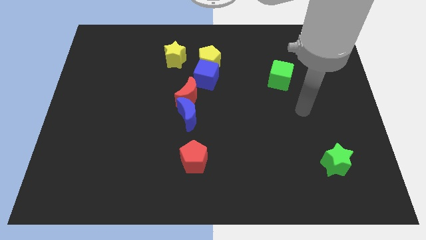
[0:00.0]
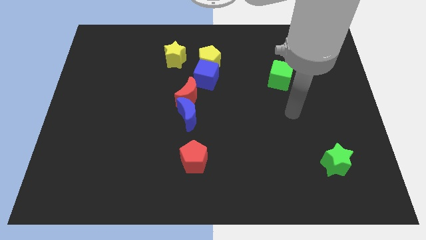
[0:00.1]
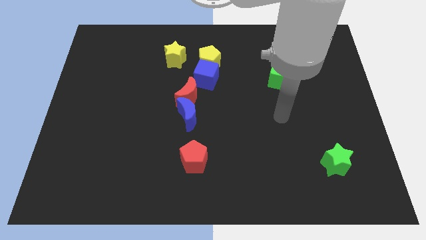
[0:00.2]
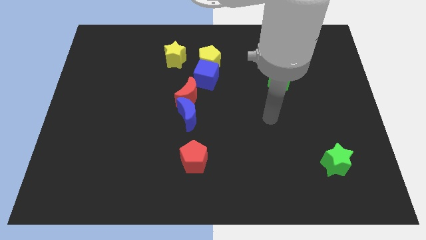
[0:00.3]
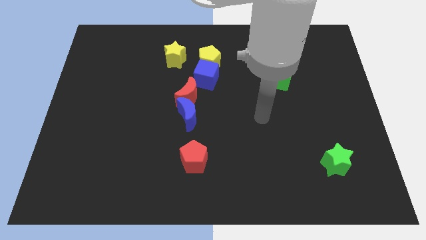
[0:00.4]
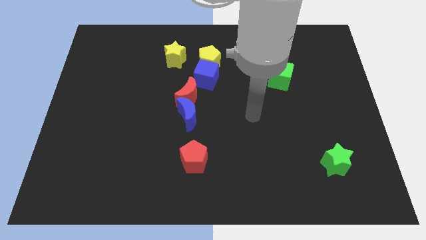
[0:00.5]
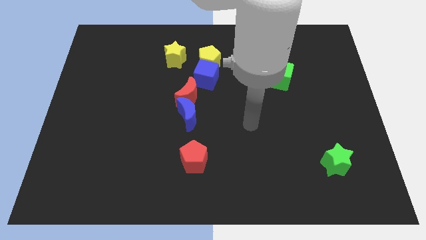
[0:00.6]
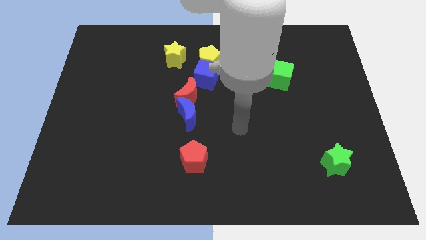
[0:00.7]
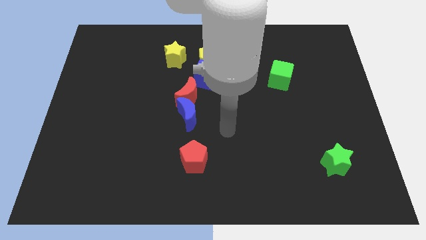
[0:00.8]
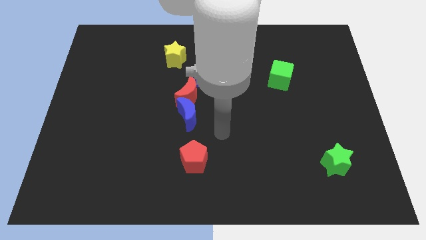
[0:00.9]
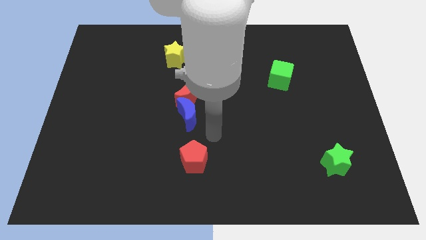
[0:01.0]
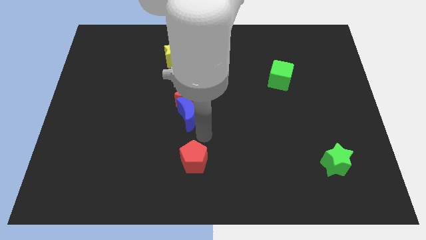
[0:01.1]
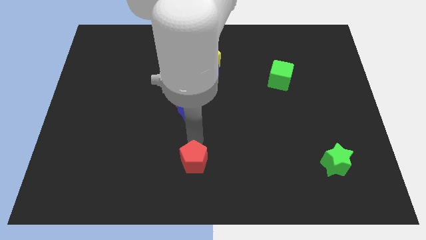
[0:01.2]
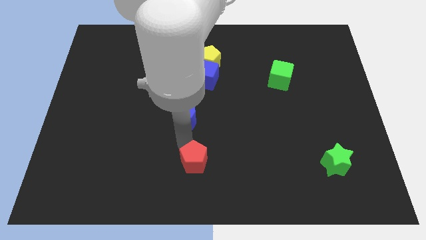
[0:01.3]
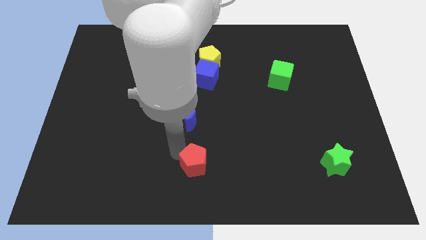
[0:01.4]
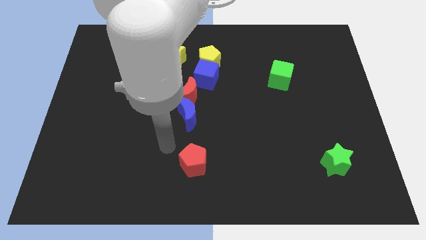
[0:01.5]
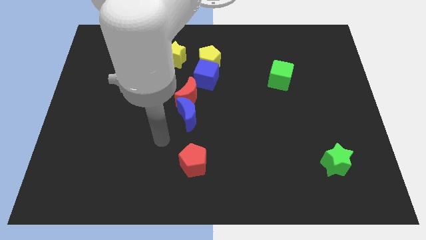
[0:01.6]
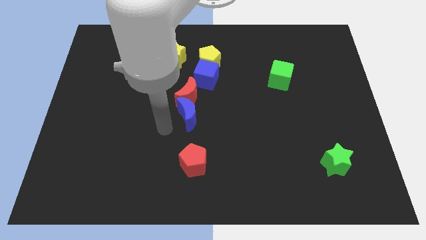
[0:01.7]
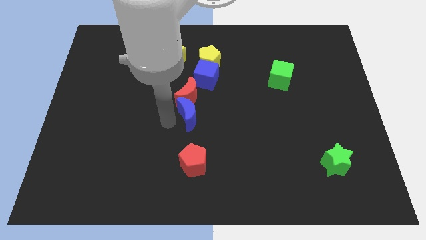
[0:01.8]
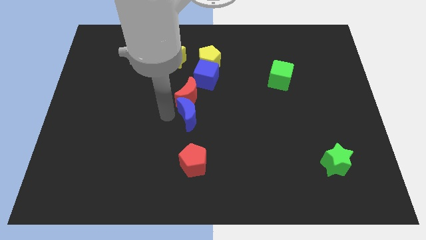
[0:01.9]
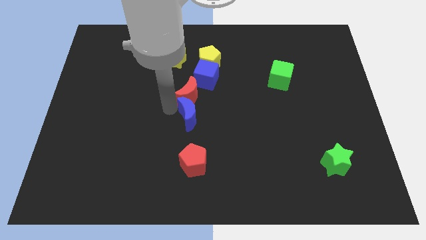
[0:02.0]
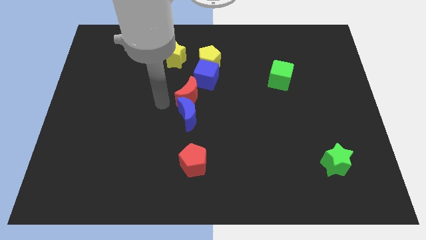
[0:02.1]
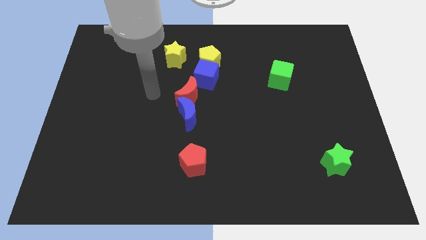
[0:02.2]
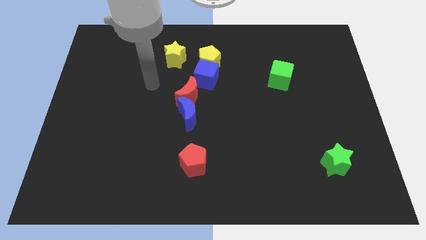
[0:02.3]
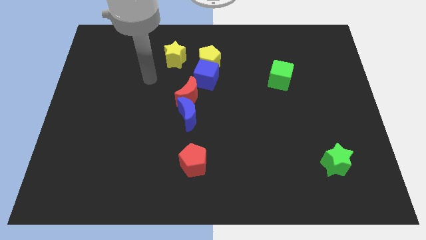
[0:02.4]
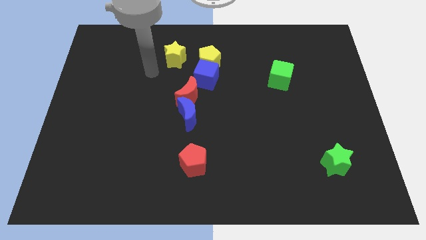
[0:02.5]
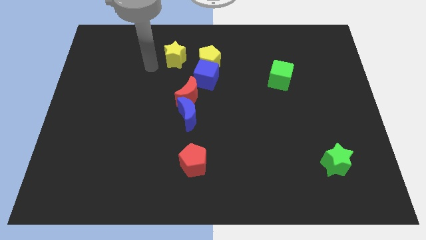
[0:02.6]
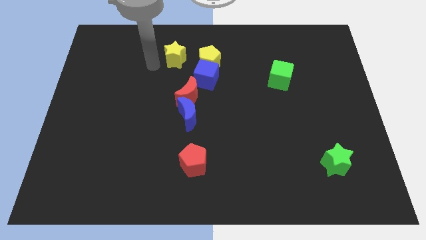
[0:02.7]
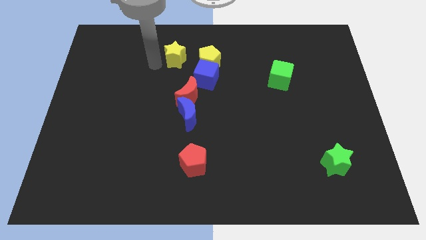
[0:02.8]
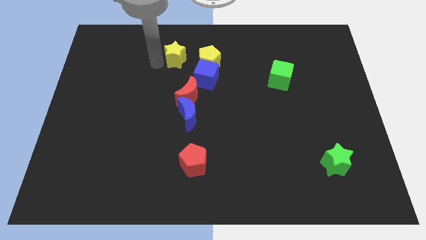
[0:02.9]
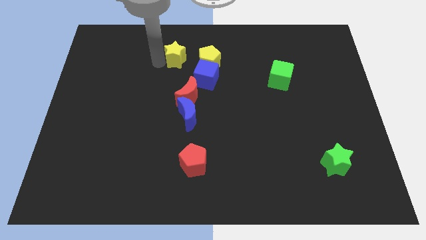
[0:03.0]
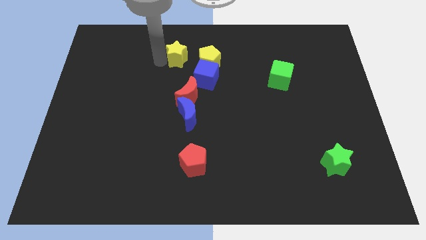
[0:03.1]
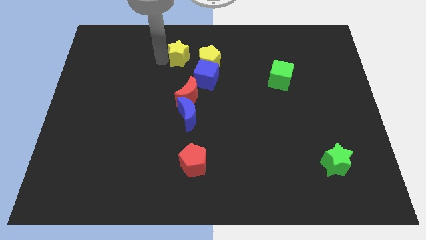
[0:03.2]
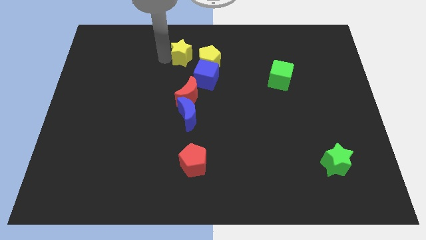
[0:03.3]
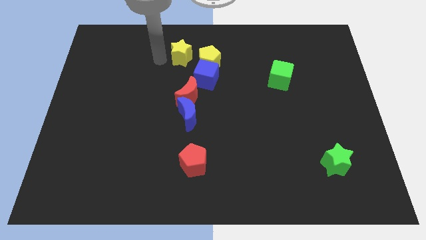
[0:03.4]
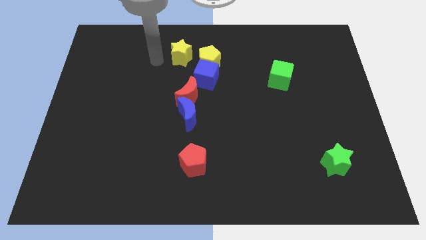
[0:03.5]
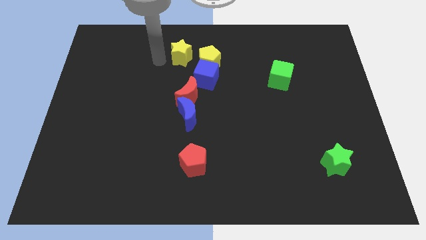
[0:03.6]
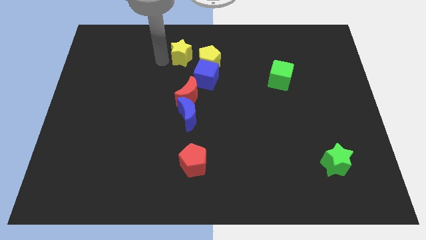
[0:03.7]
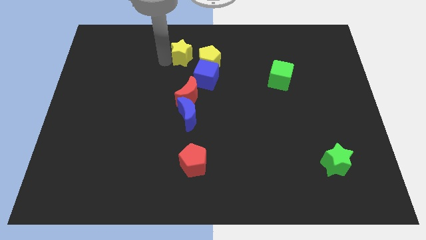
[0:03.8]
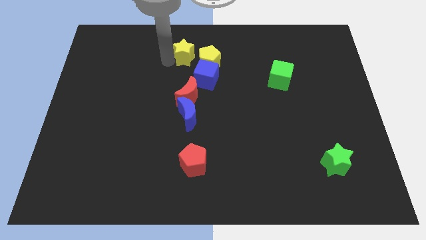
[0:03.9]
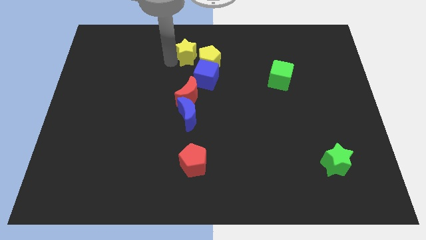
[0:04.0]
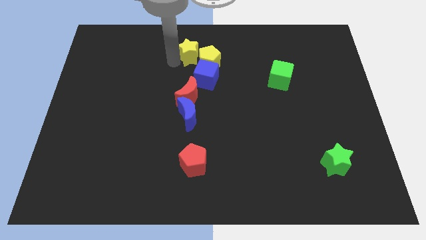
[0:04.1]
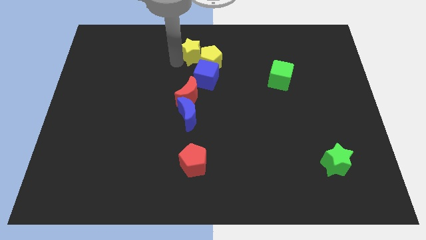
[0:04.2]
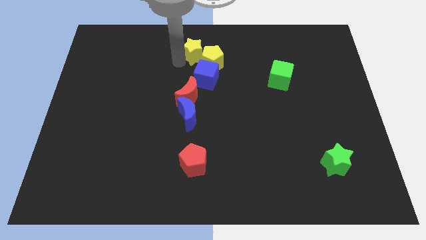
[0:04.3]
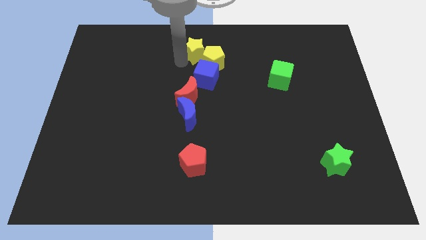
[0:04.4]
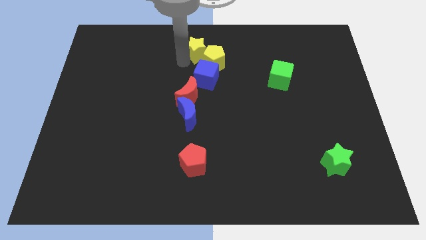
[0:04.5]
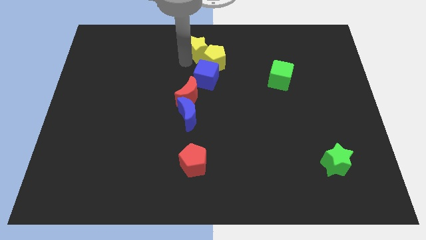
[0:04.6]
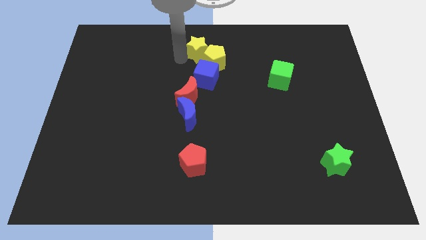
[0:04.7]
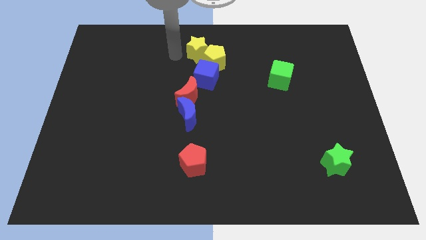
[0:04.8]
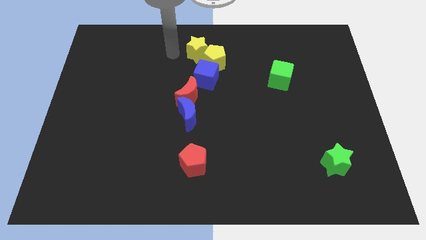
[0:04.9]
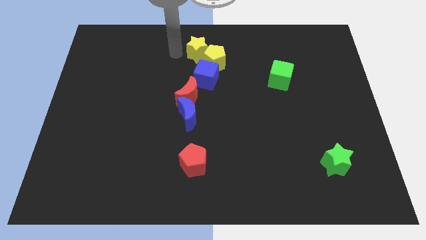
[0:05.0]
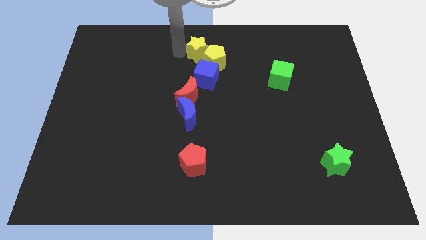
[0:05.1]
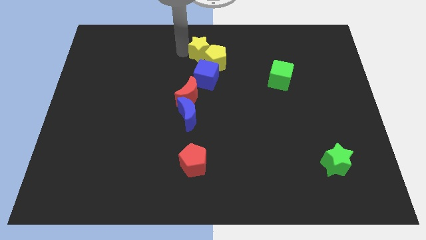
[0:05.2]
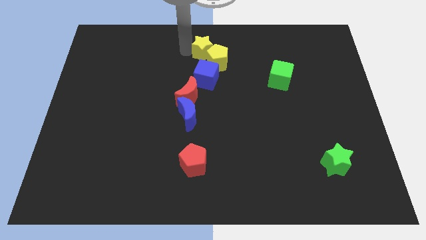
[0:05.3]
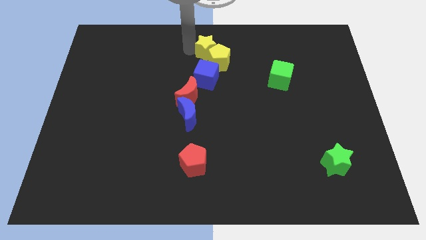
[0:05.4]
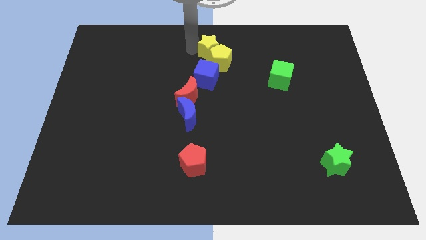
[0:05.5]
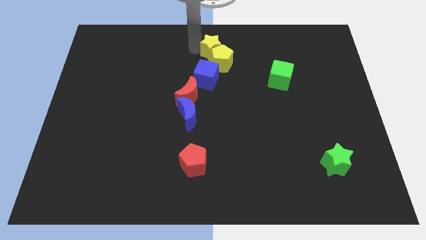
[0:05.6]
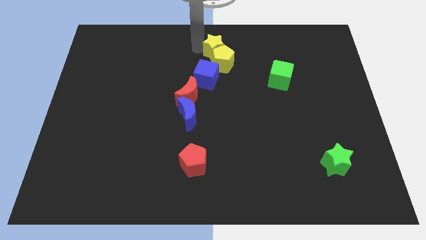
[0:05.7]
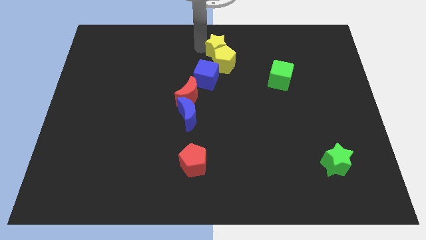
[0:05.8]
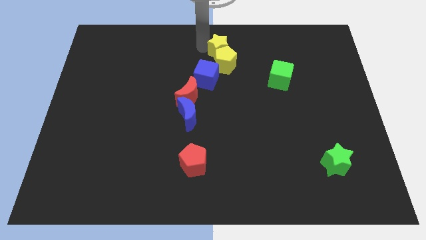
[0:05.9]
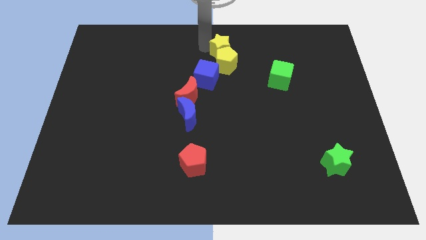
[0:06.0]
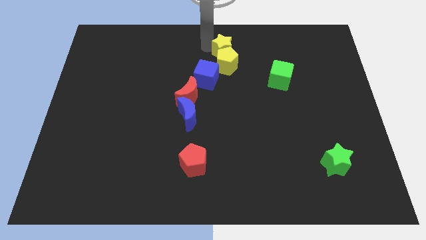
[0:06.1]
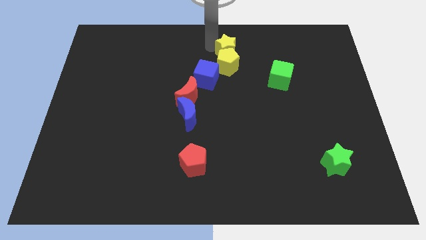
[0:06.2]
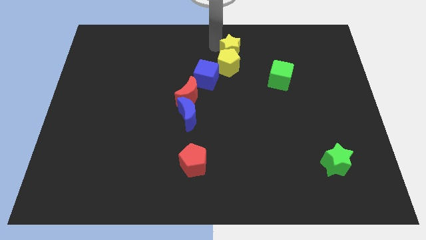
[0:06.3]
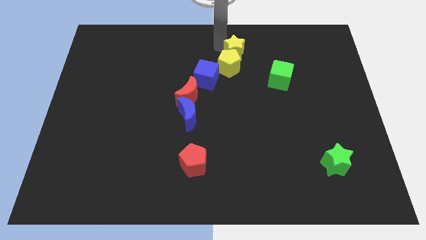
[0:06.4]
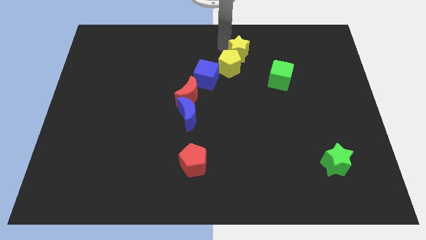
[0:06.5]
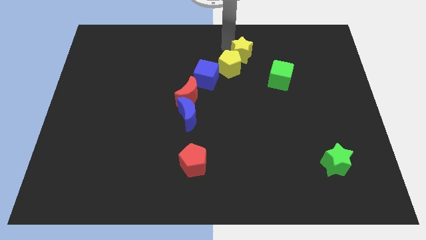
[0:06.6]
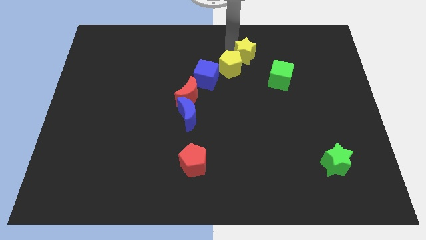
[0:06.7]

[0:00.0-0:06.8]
slide the yellow star just right of the yellow pentagon
